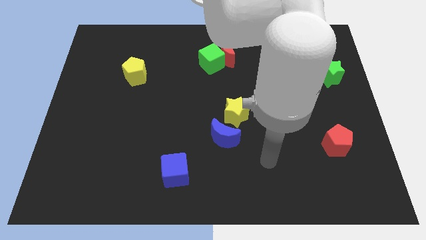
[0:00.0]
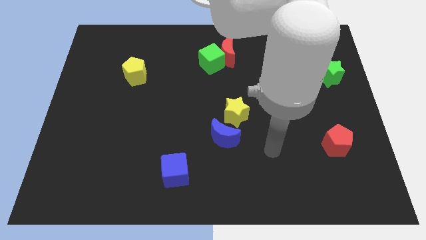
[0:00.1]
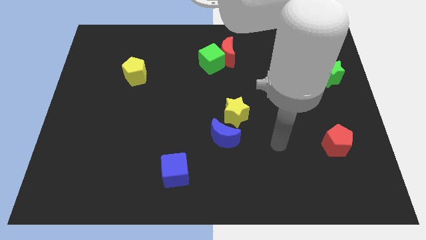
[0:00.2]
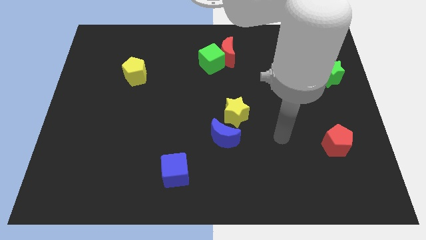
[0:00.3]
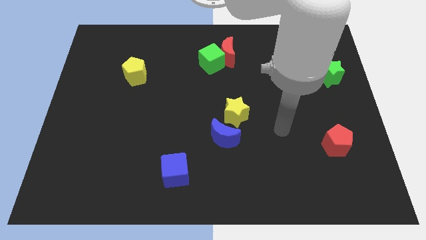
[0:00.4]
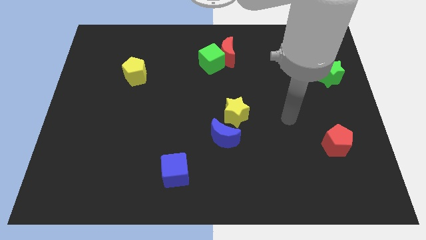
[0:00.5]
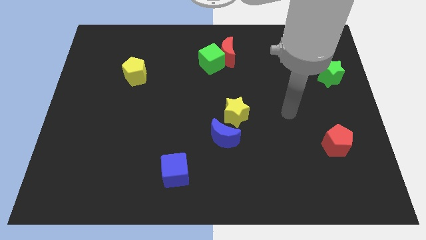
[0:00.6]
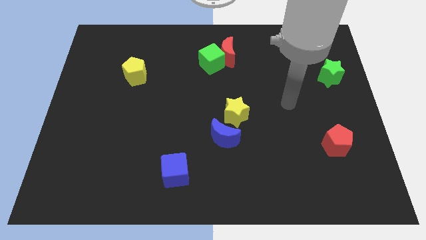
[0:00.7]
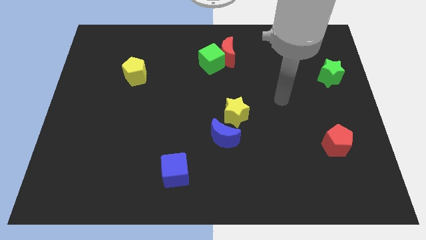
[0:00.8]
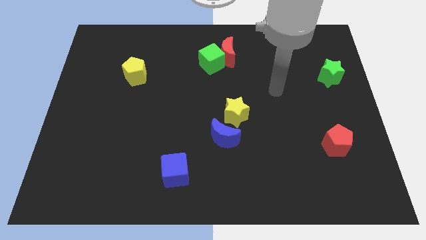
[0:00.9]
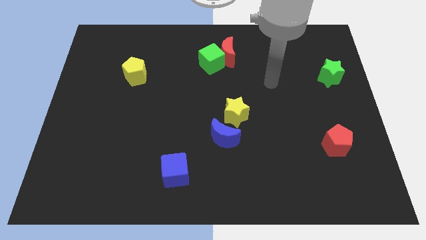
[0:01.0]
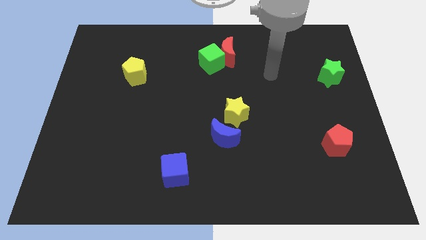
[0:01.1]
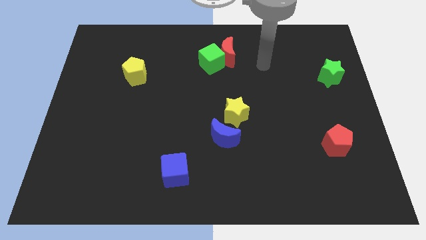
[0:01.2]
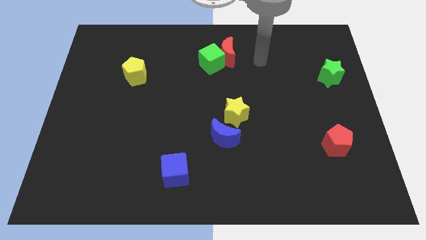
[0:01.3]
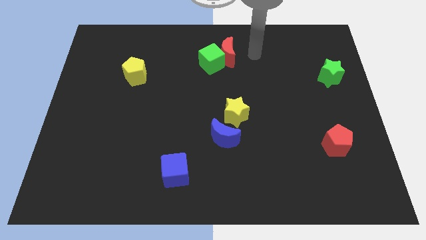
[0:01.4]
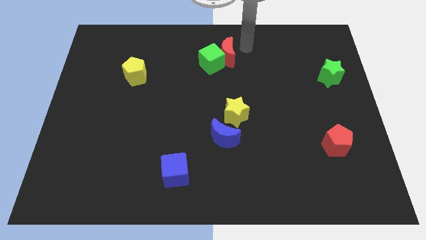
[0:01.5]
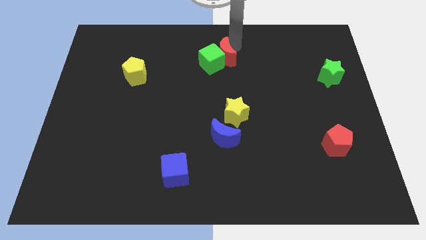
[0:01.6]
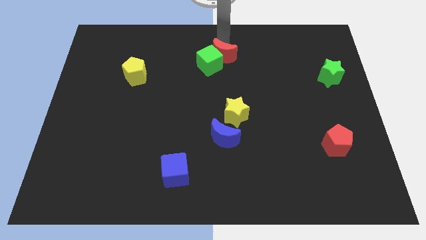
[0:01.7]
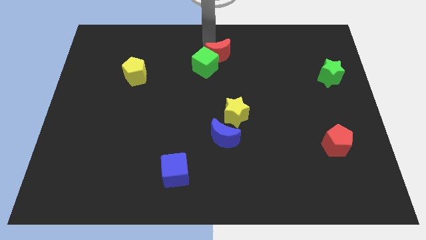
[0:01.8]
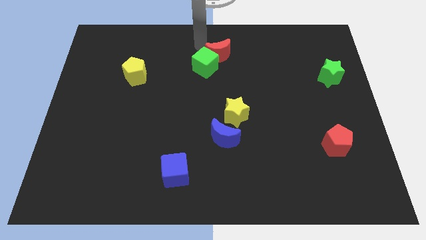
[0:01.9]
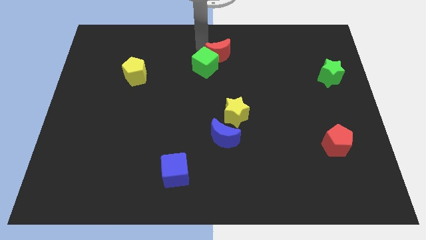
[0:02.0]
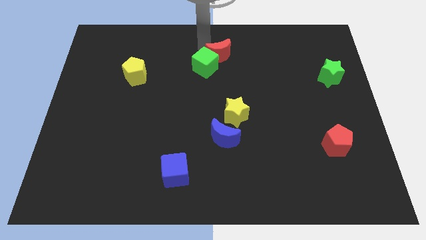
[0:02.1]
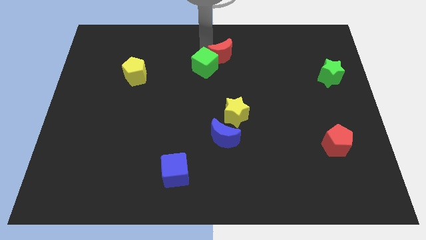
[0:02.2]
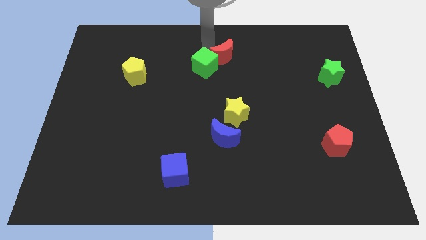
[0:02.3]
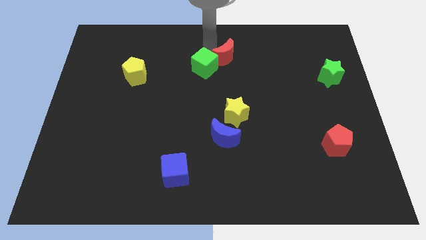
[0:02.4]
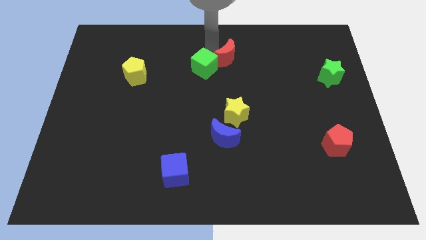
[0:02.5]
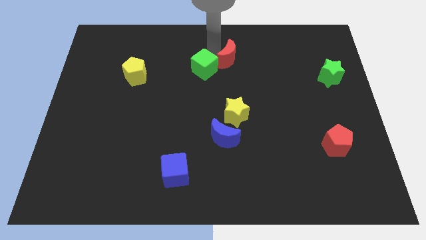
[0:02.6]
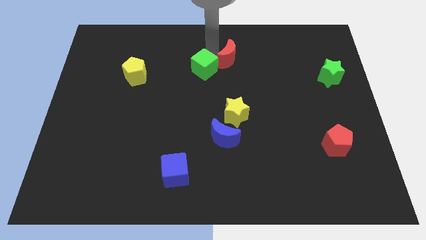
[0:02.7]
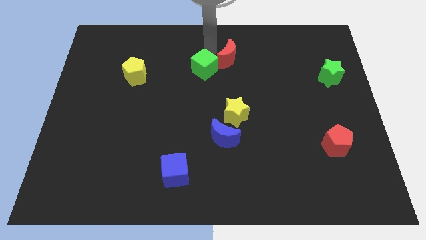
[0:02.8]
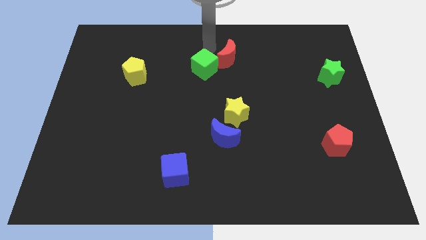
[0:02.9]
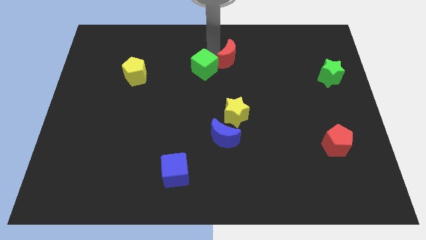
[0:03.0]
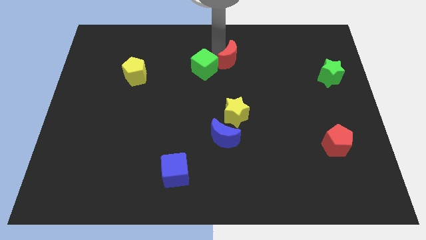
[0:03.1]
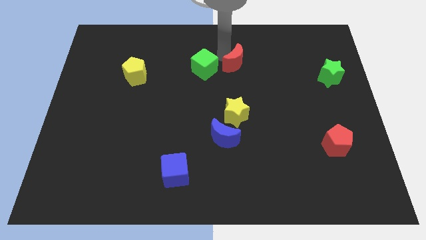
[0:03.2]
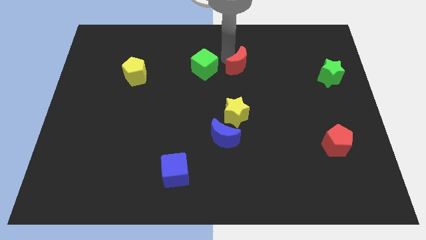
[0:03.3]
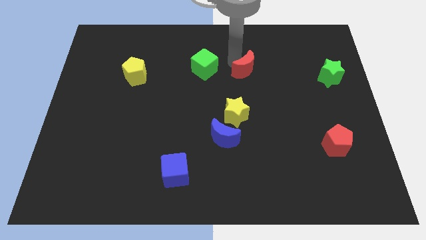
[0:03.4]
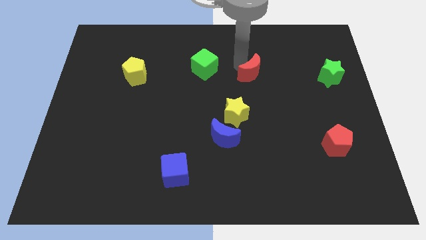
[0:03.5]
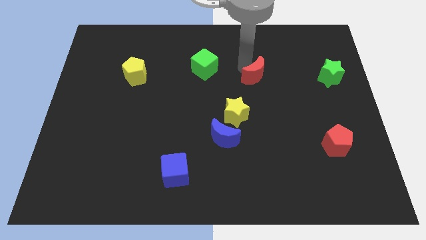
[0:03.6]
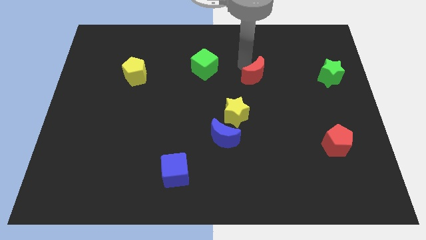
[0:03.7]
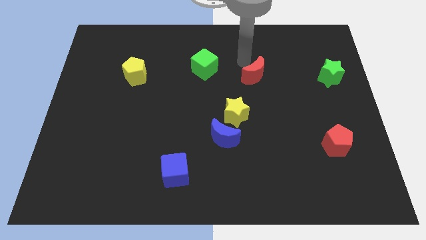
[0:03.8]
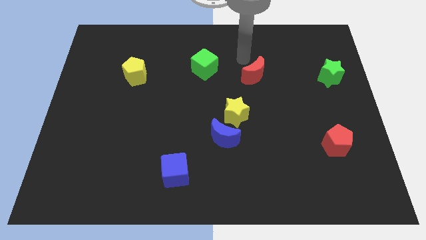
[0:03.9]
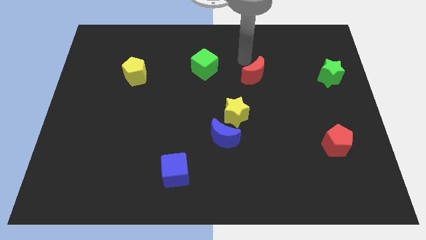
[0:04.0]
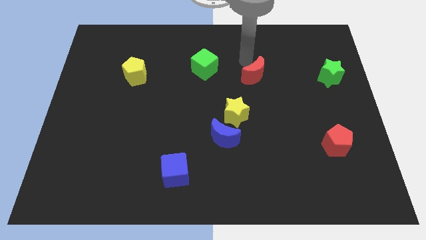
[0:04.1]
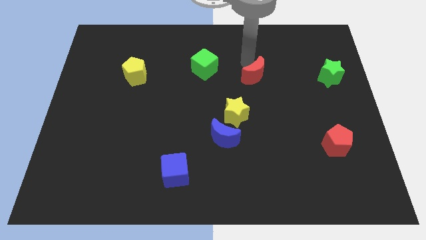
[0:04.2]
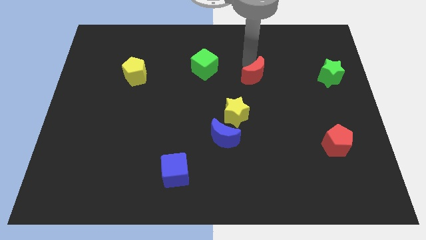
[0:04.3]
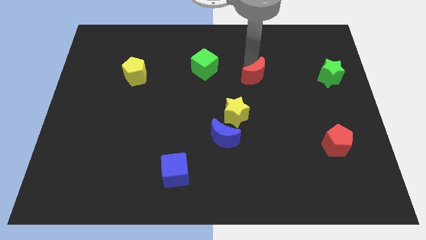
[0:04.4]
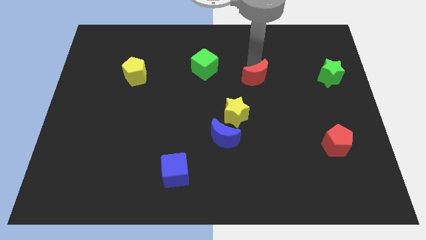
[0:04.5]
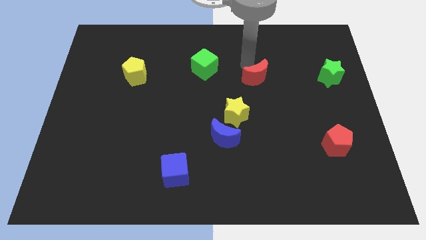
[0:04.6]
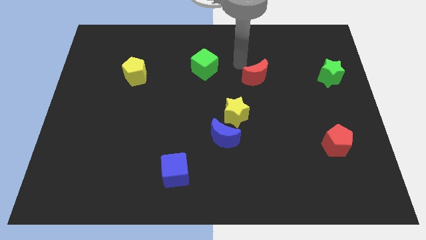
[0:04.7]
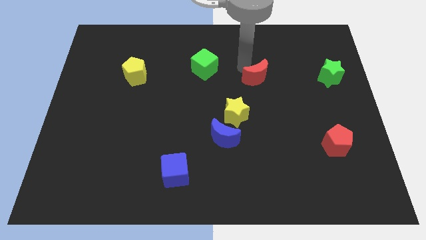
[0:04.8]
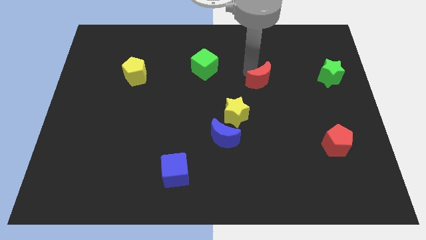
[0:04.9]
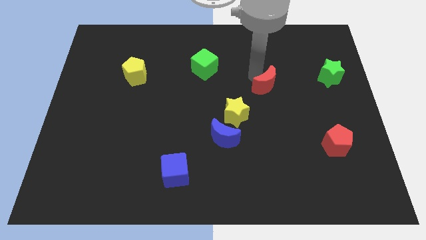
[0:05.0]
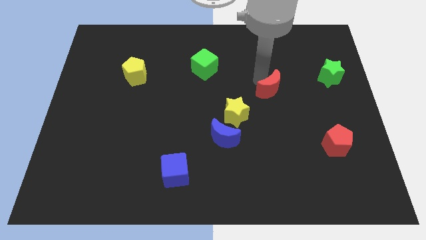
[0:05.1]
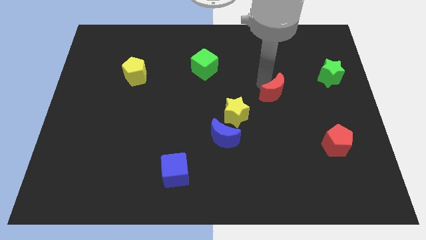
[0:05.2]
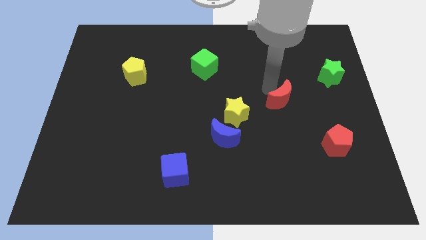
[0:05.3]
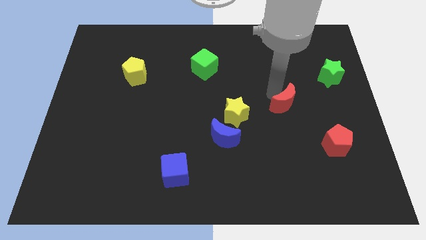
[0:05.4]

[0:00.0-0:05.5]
move the red moon down and right diagonally

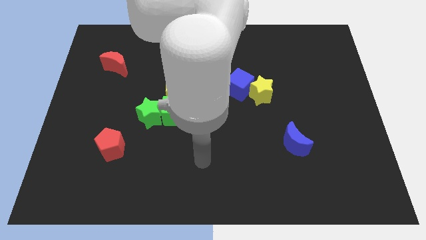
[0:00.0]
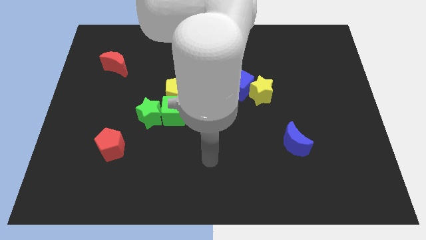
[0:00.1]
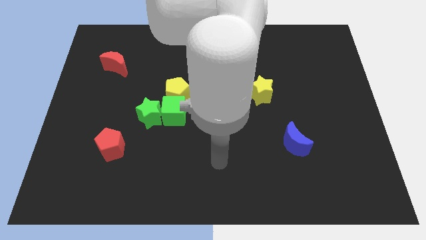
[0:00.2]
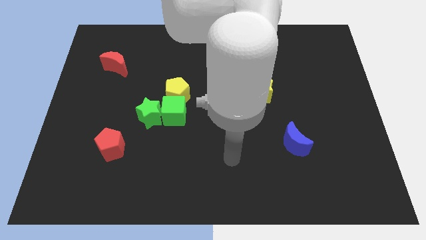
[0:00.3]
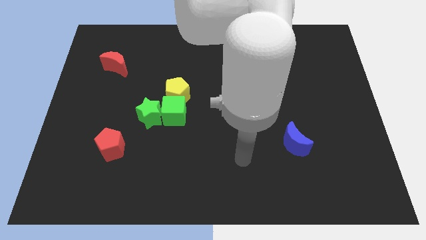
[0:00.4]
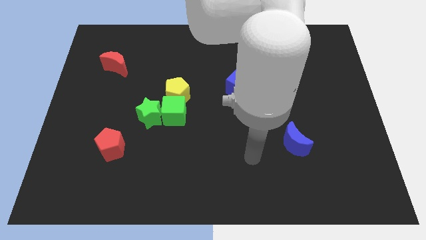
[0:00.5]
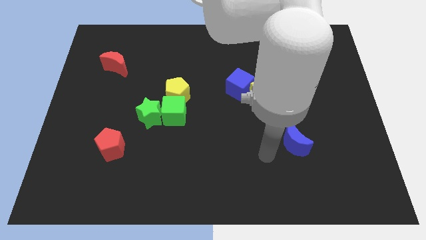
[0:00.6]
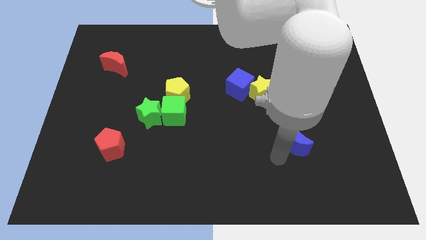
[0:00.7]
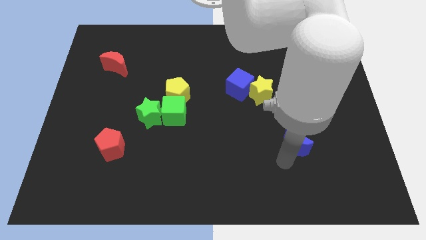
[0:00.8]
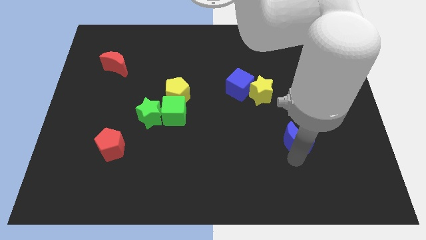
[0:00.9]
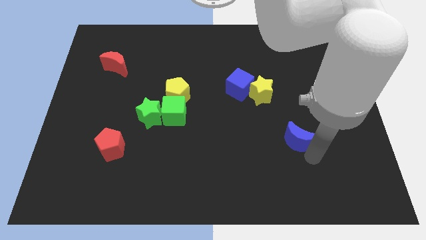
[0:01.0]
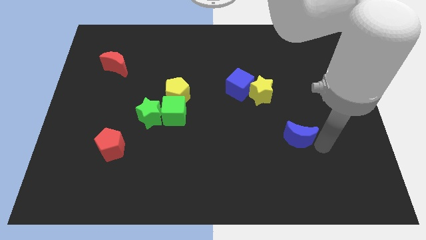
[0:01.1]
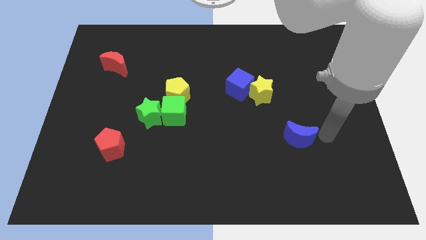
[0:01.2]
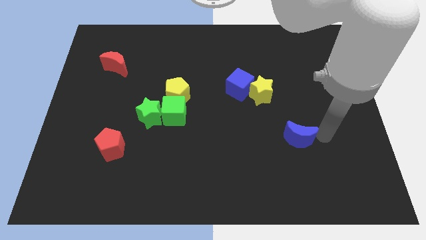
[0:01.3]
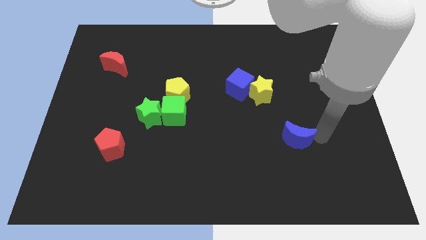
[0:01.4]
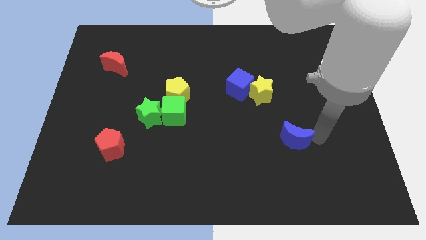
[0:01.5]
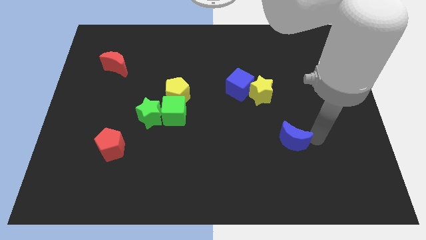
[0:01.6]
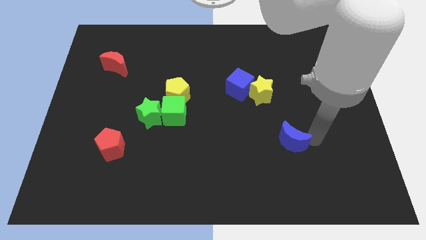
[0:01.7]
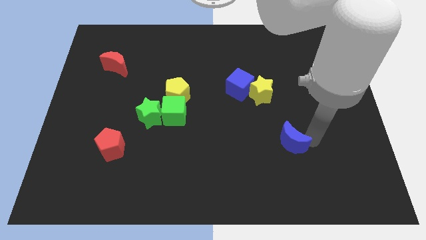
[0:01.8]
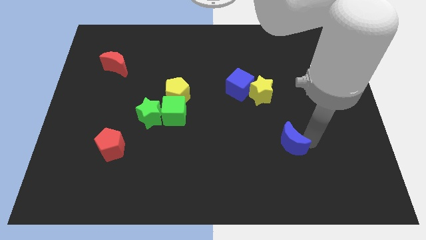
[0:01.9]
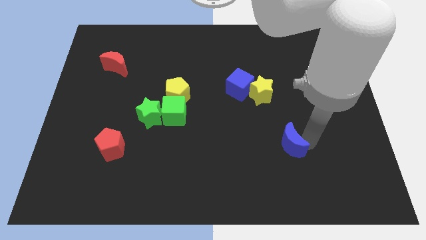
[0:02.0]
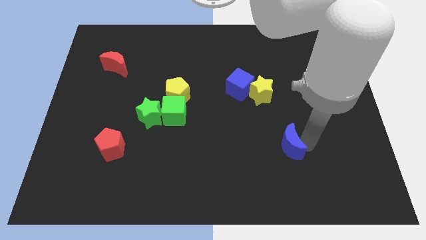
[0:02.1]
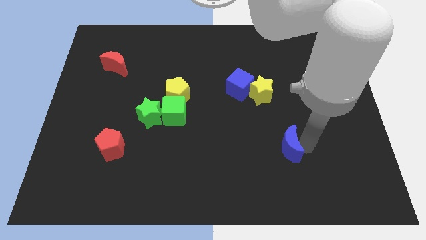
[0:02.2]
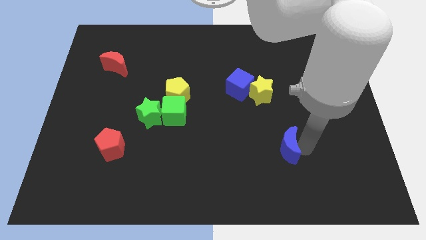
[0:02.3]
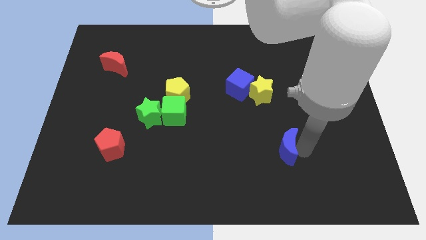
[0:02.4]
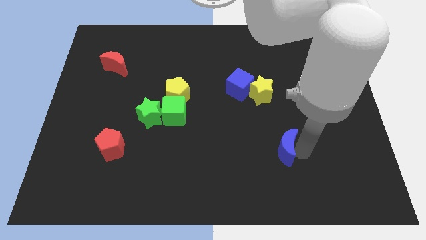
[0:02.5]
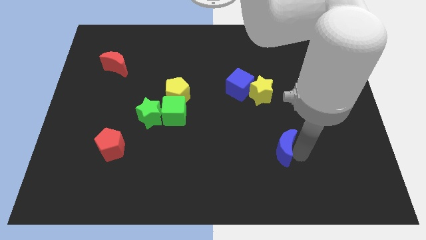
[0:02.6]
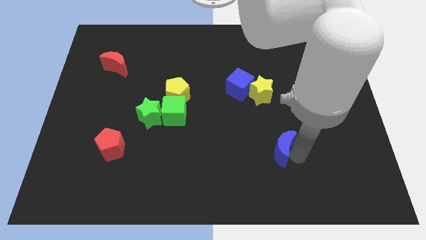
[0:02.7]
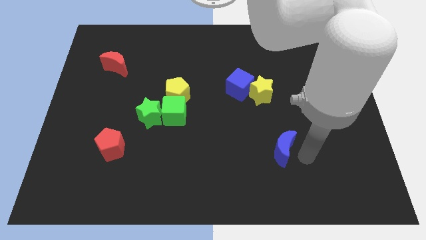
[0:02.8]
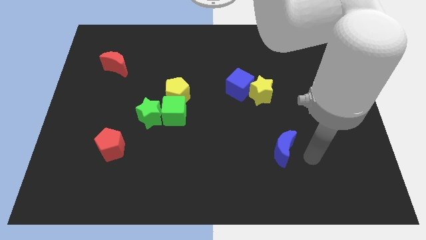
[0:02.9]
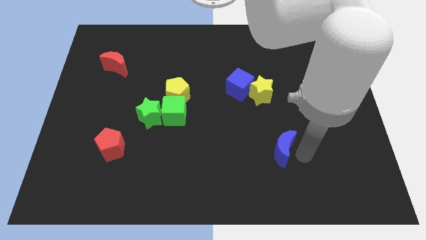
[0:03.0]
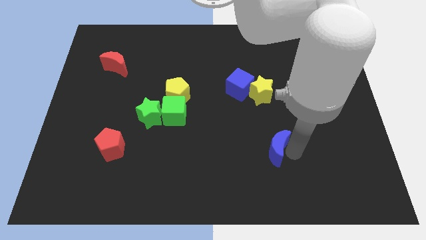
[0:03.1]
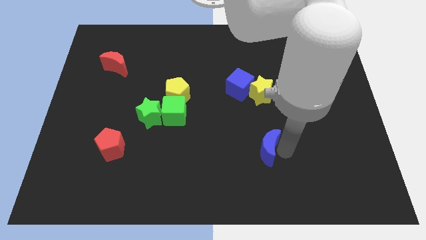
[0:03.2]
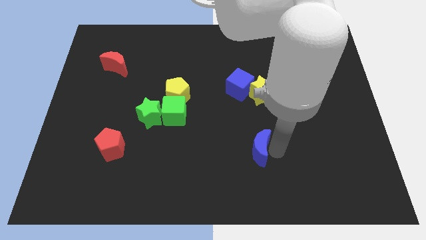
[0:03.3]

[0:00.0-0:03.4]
move the blue moon slightly to the left
